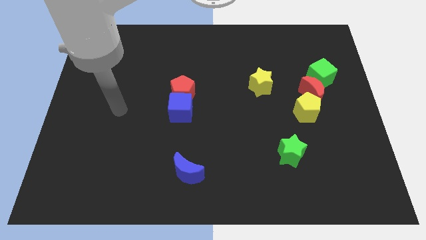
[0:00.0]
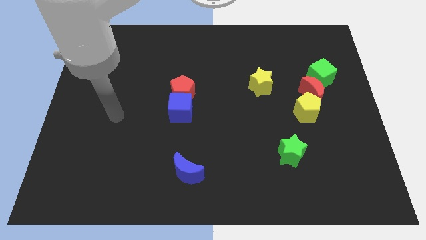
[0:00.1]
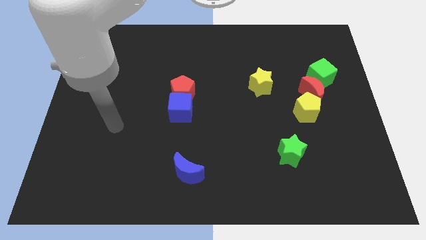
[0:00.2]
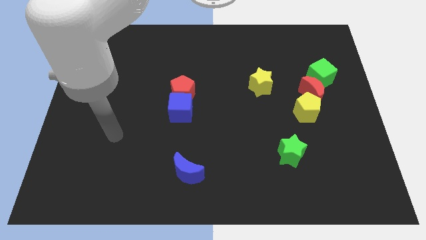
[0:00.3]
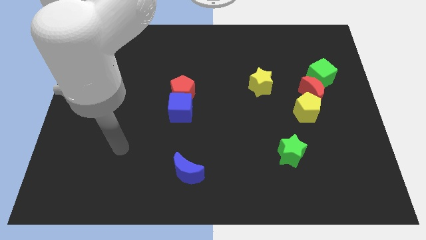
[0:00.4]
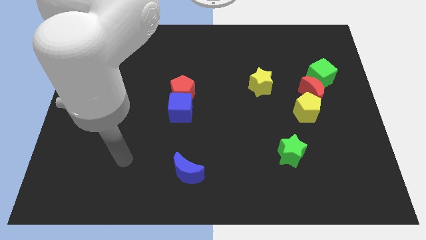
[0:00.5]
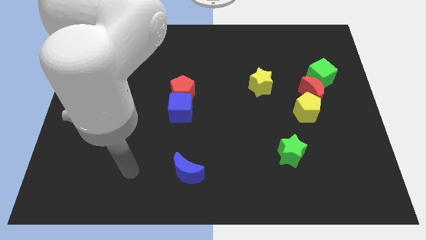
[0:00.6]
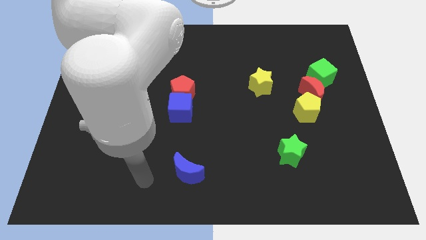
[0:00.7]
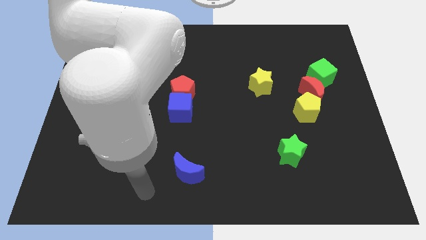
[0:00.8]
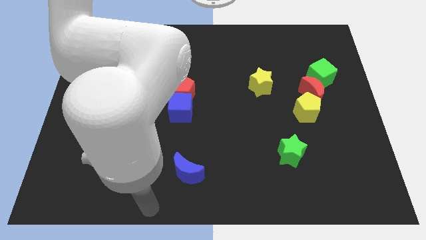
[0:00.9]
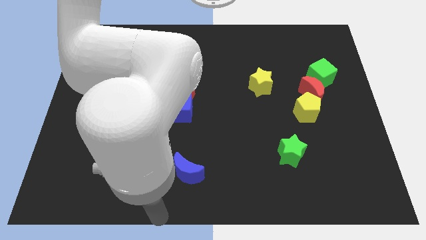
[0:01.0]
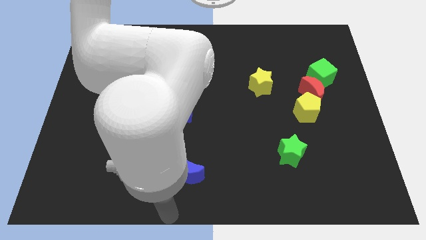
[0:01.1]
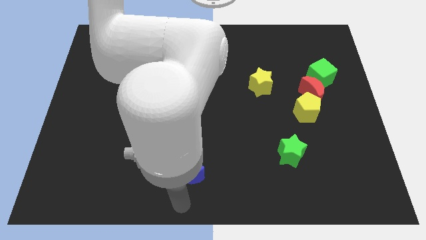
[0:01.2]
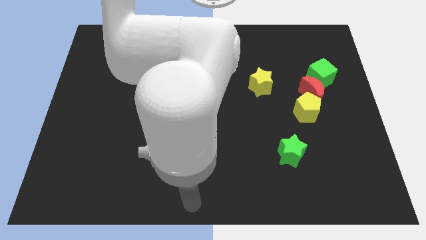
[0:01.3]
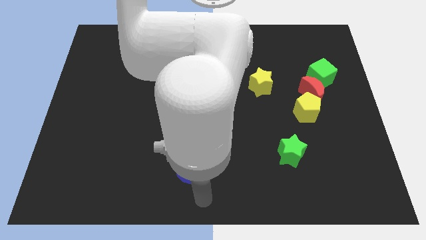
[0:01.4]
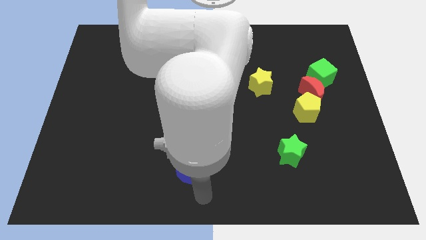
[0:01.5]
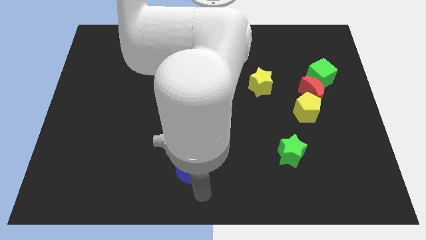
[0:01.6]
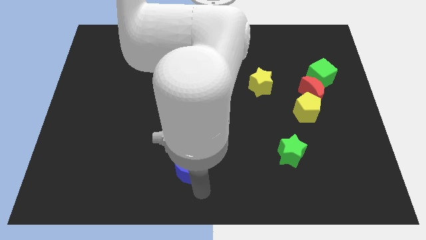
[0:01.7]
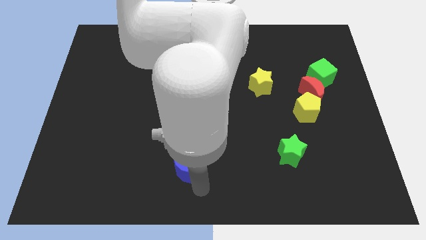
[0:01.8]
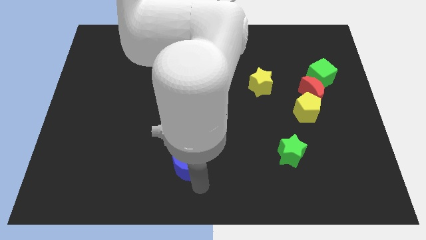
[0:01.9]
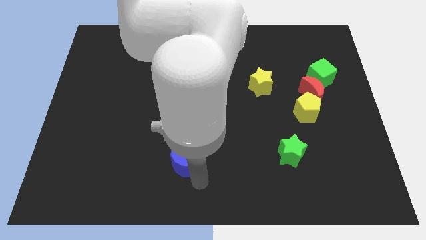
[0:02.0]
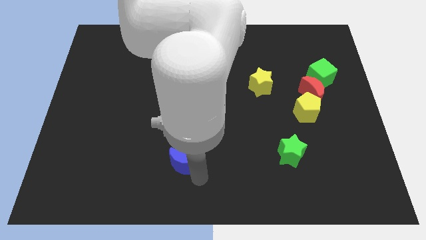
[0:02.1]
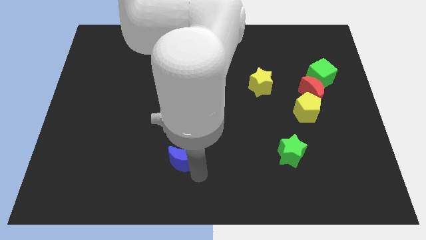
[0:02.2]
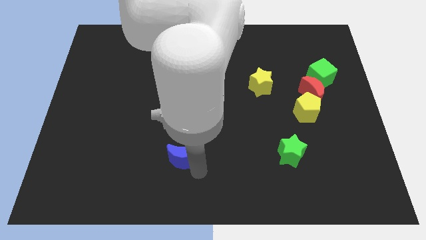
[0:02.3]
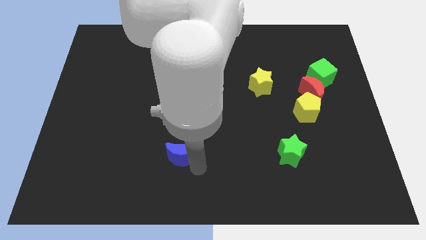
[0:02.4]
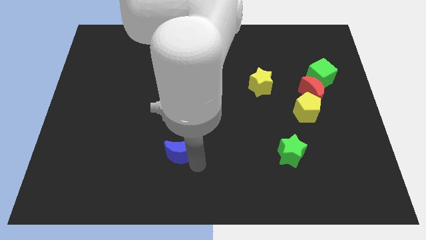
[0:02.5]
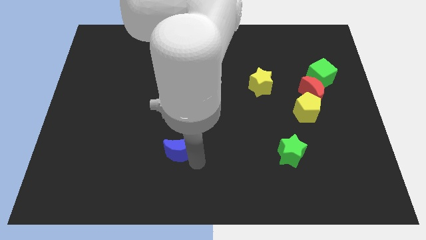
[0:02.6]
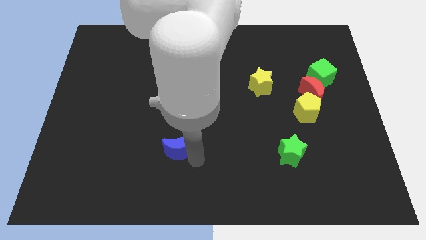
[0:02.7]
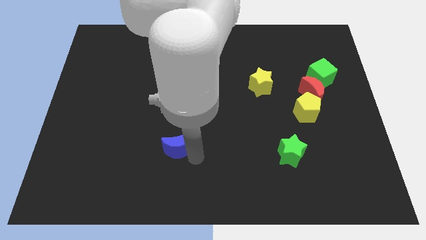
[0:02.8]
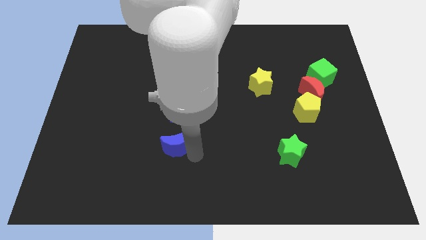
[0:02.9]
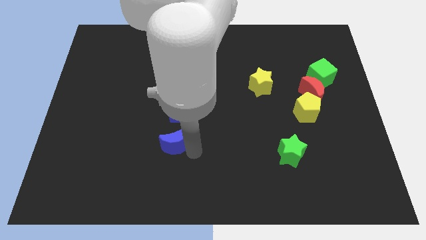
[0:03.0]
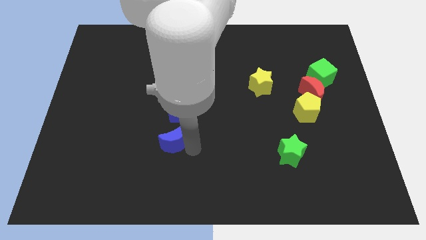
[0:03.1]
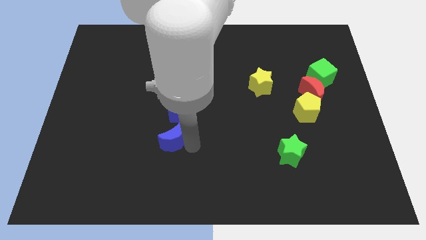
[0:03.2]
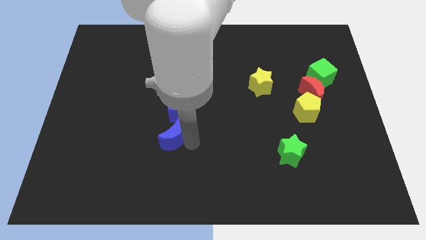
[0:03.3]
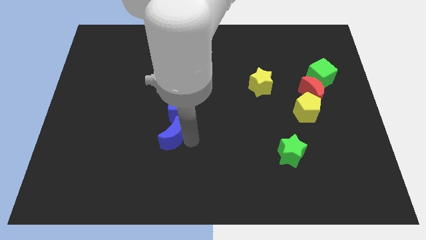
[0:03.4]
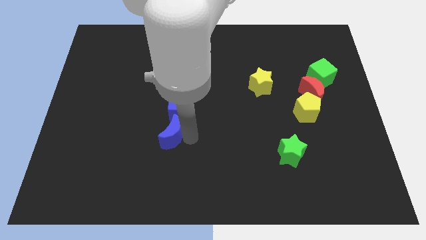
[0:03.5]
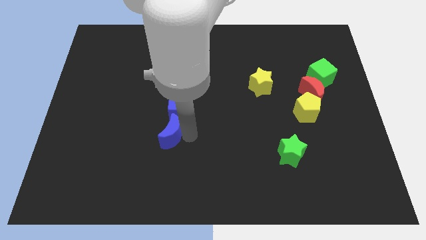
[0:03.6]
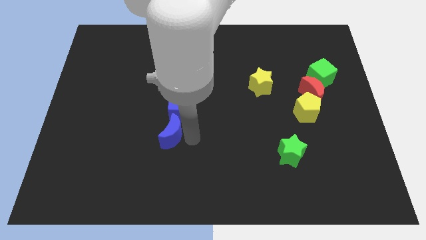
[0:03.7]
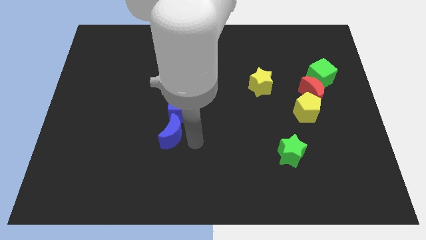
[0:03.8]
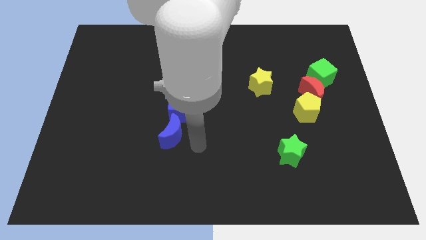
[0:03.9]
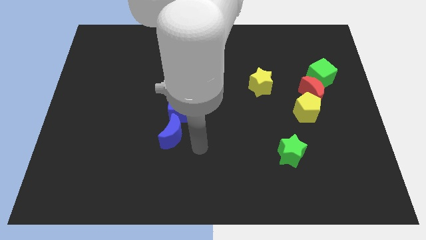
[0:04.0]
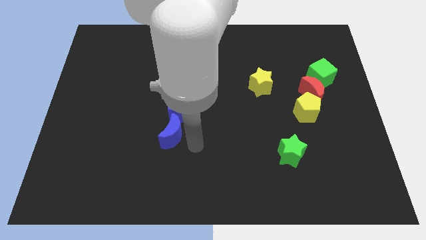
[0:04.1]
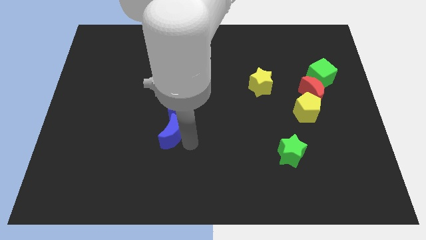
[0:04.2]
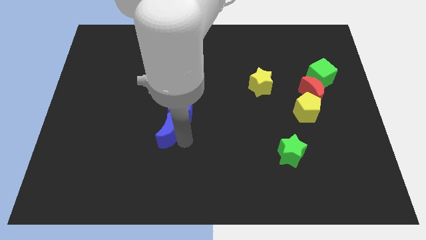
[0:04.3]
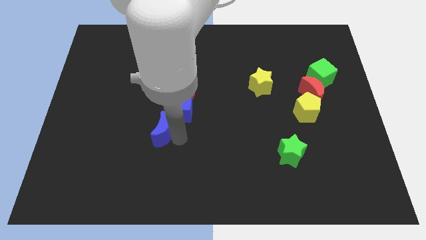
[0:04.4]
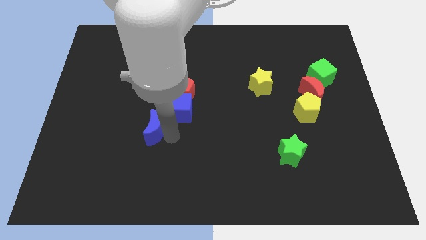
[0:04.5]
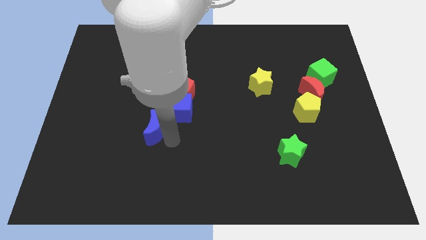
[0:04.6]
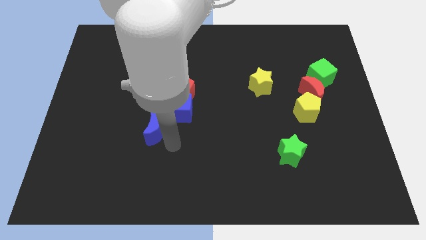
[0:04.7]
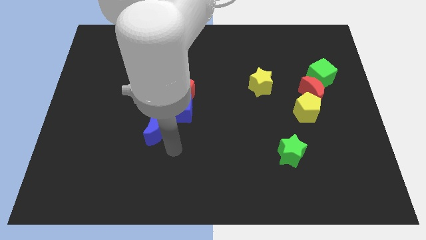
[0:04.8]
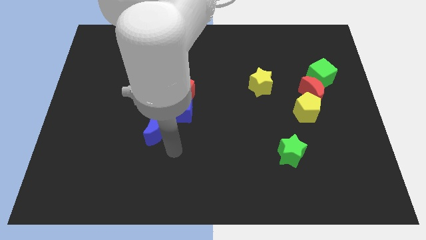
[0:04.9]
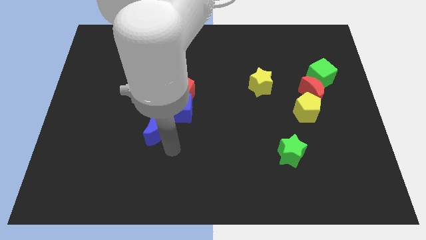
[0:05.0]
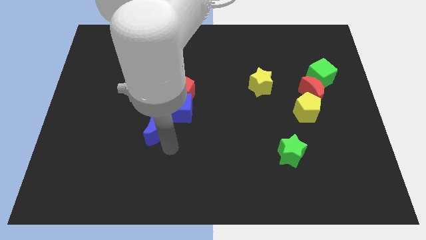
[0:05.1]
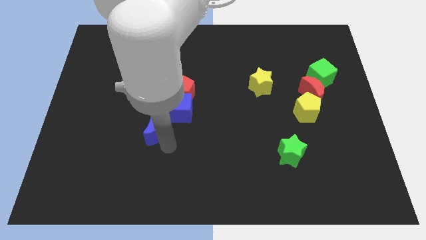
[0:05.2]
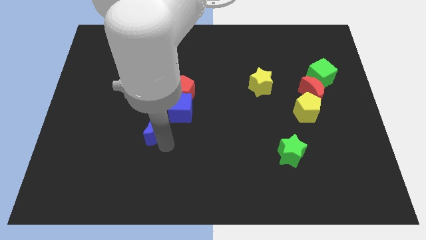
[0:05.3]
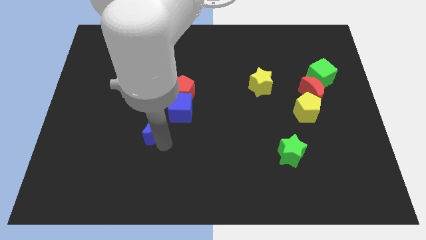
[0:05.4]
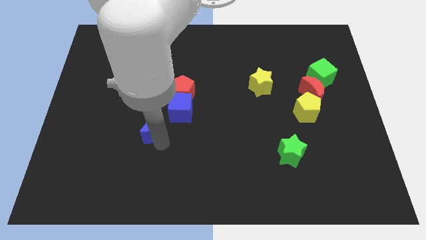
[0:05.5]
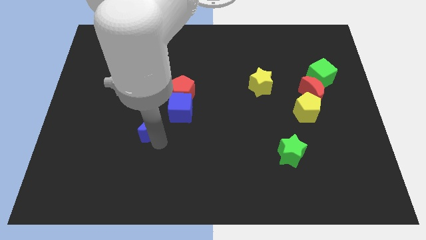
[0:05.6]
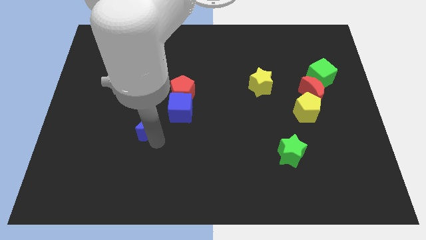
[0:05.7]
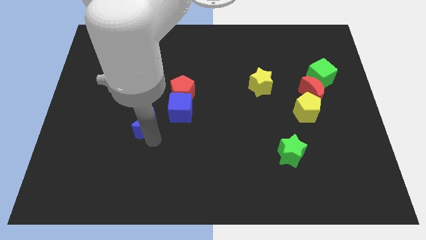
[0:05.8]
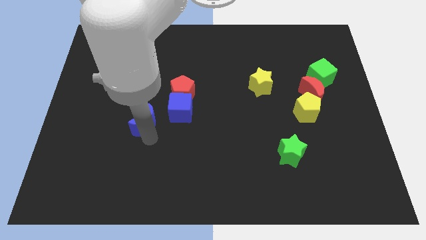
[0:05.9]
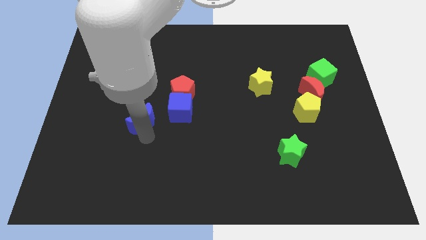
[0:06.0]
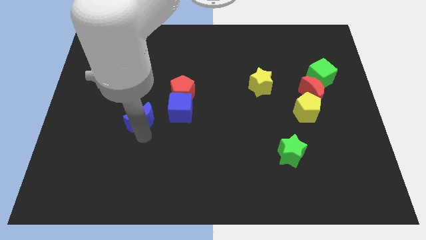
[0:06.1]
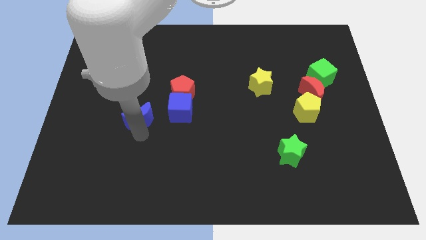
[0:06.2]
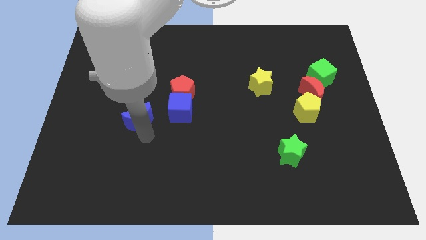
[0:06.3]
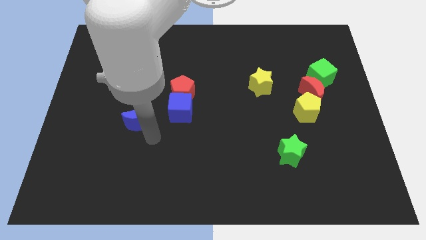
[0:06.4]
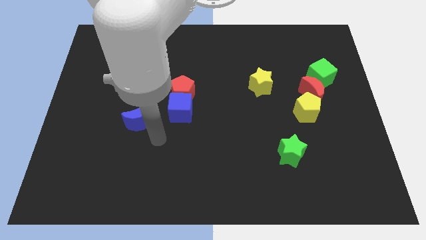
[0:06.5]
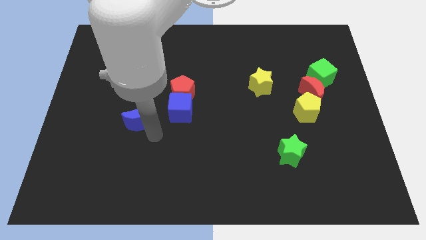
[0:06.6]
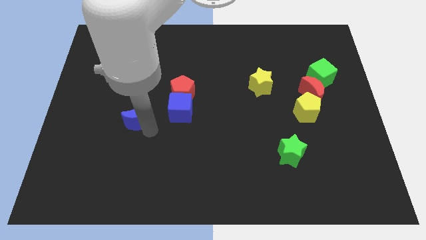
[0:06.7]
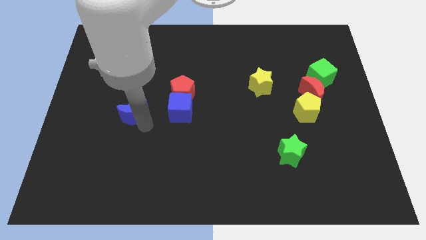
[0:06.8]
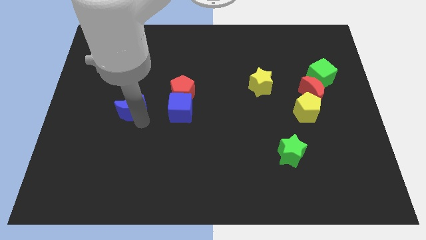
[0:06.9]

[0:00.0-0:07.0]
move the blue moon upwards and then left

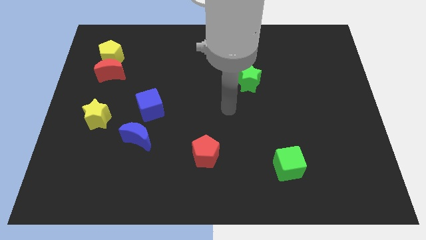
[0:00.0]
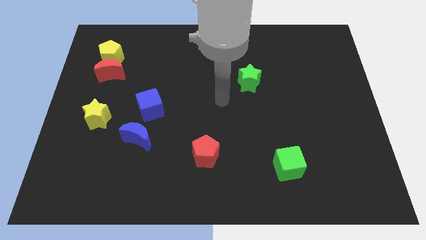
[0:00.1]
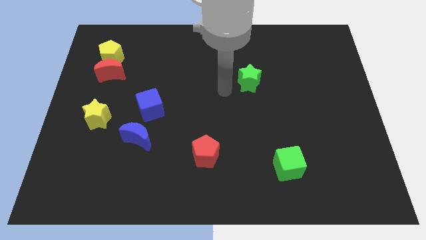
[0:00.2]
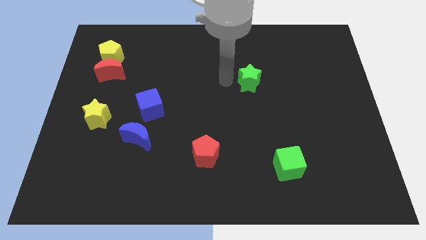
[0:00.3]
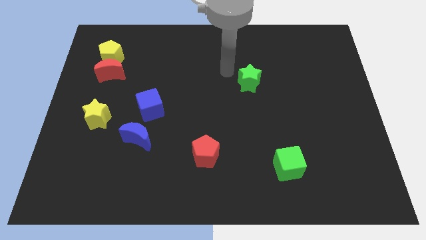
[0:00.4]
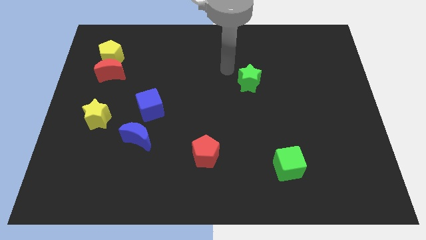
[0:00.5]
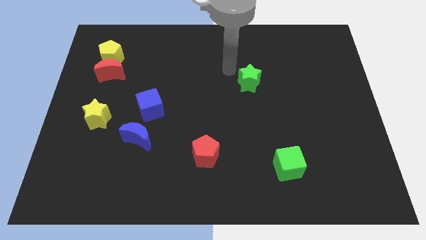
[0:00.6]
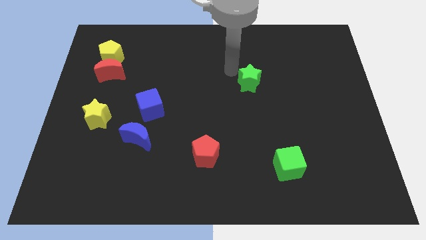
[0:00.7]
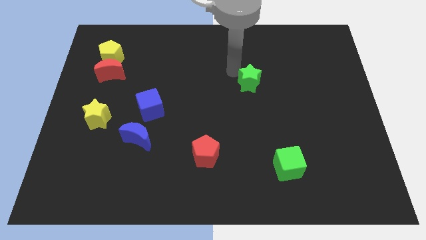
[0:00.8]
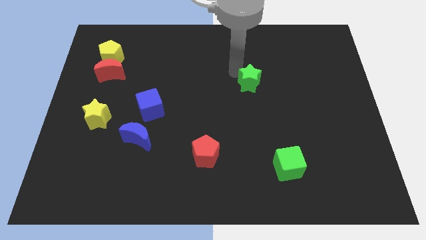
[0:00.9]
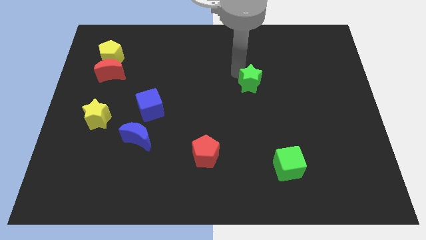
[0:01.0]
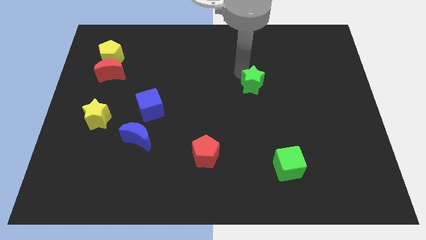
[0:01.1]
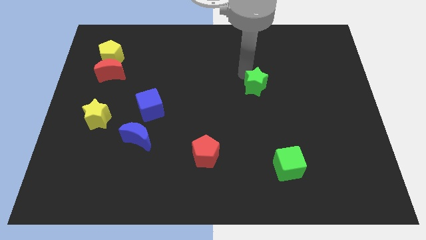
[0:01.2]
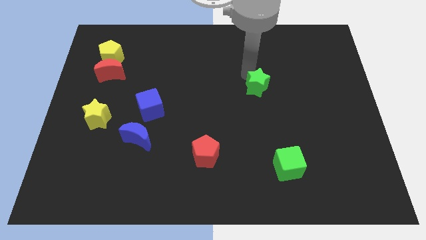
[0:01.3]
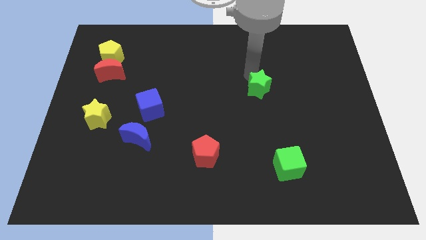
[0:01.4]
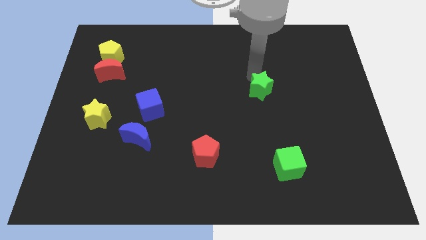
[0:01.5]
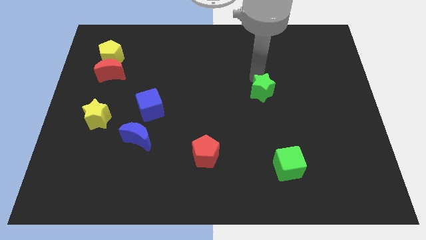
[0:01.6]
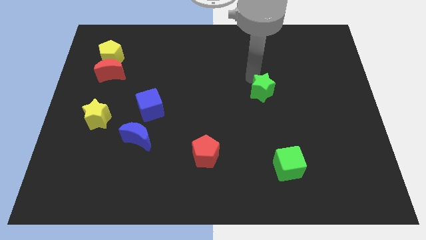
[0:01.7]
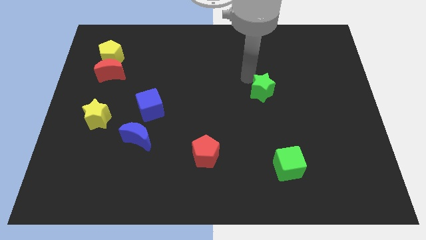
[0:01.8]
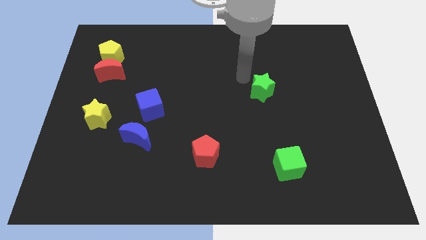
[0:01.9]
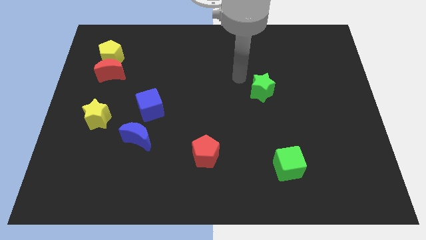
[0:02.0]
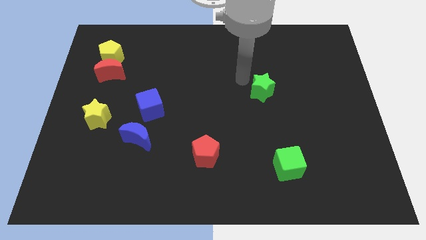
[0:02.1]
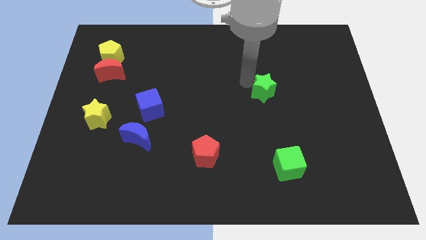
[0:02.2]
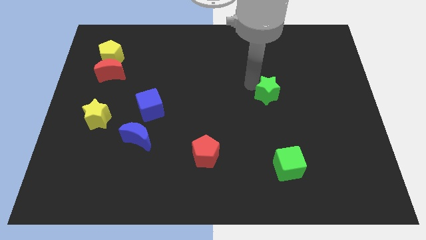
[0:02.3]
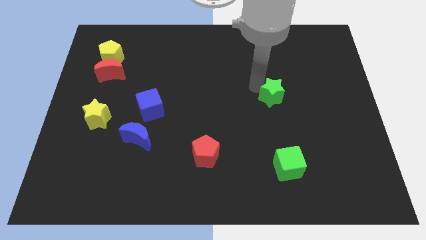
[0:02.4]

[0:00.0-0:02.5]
slightly slide the green star down and to the right diagonally
